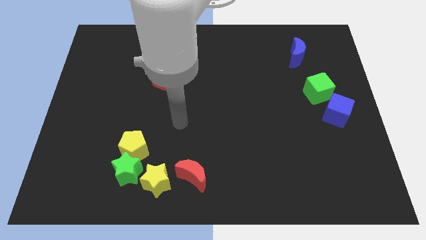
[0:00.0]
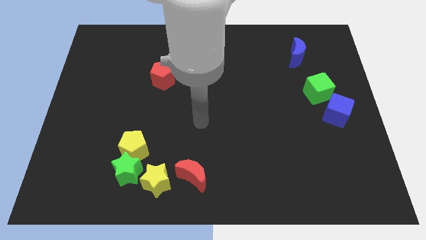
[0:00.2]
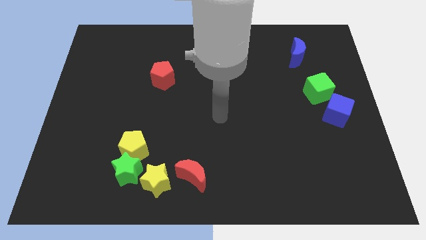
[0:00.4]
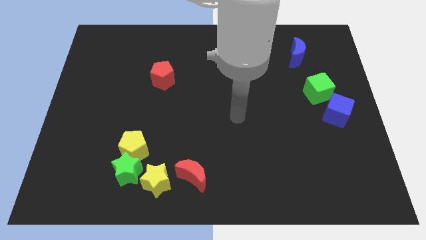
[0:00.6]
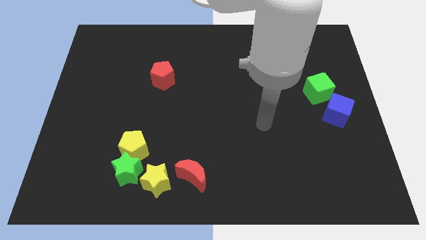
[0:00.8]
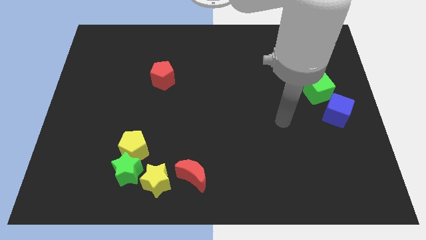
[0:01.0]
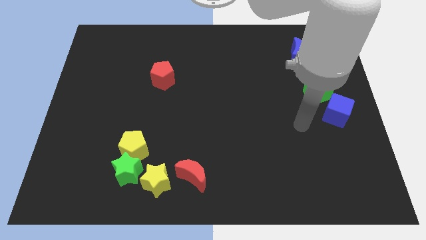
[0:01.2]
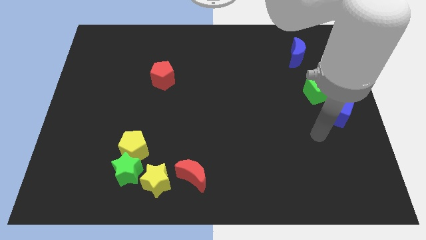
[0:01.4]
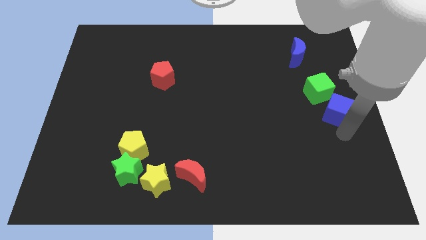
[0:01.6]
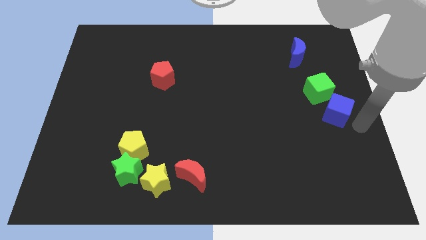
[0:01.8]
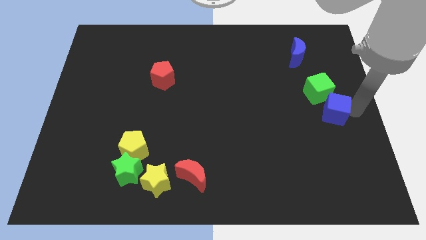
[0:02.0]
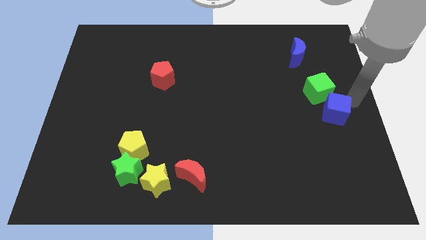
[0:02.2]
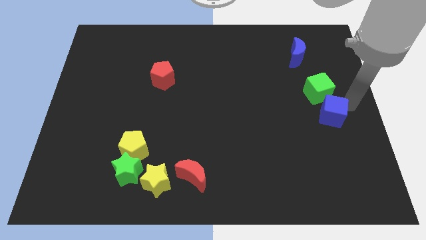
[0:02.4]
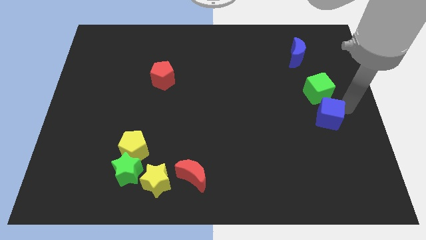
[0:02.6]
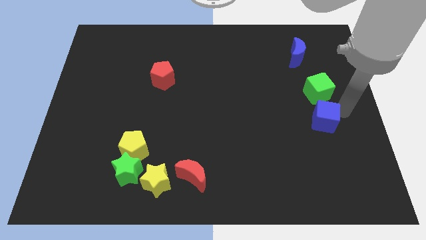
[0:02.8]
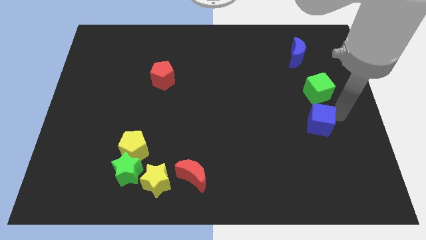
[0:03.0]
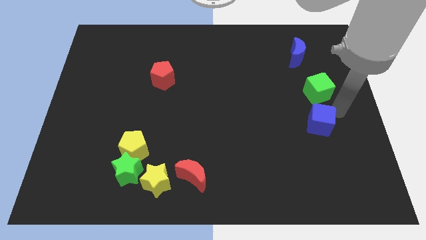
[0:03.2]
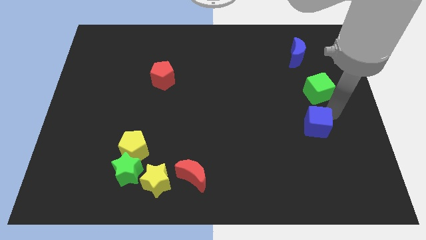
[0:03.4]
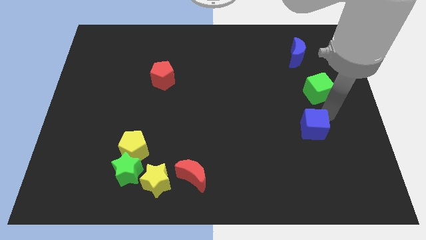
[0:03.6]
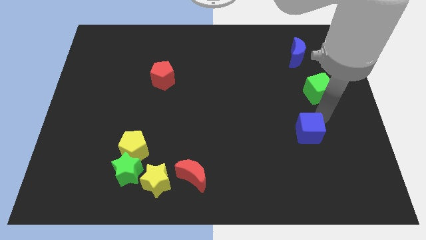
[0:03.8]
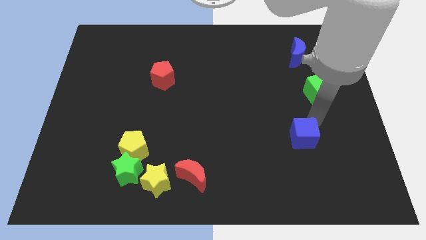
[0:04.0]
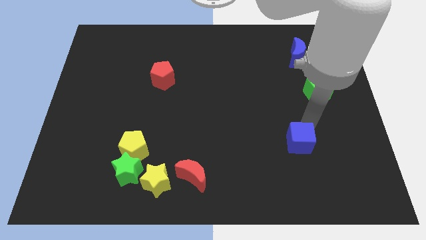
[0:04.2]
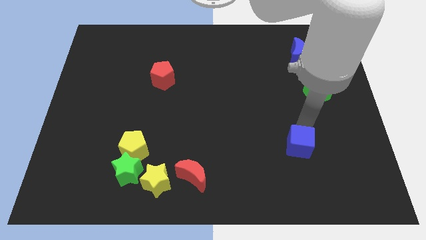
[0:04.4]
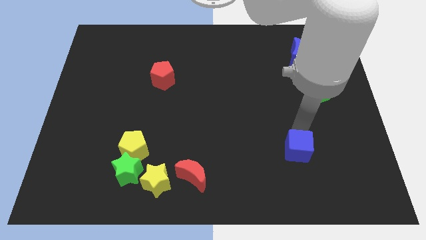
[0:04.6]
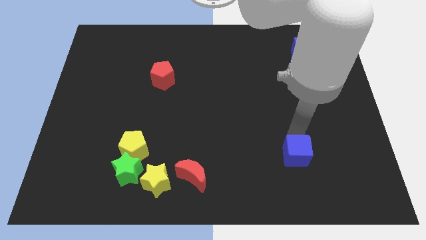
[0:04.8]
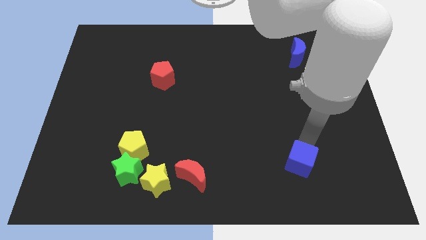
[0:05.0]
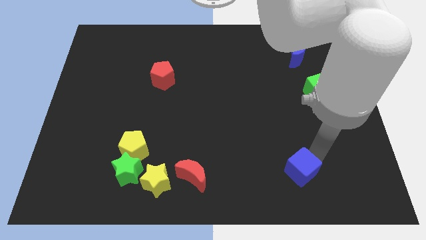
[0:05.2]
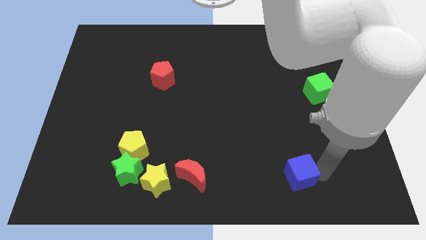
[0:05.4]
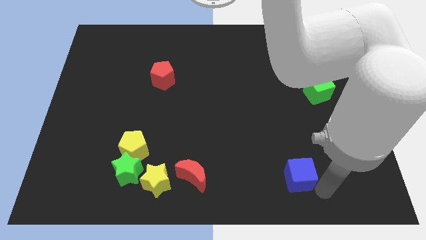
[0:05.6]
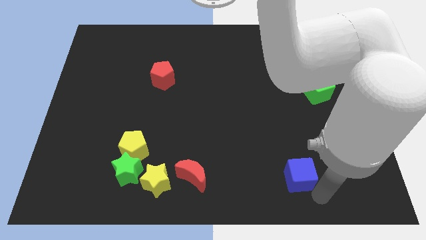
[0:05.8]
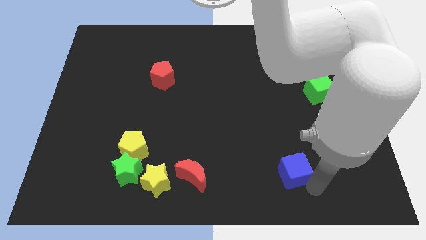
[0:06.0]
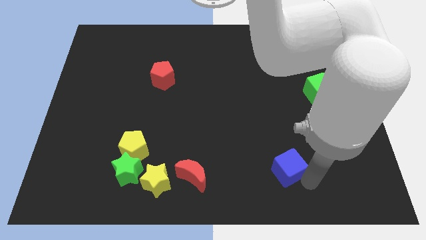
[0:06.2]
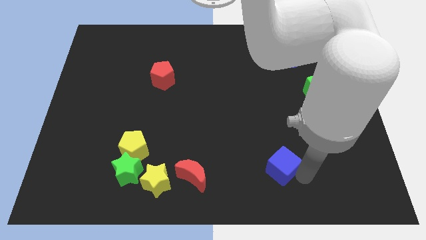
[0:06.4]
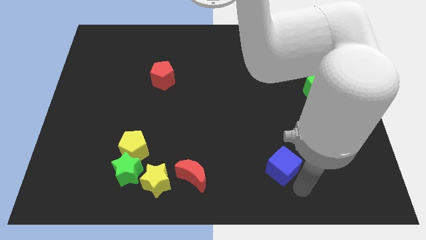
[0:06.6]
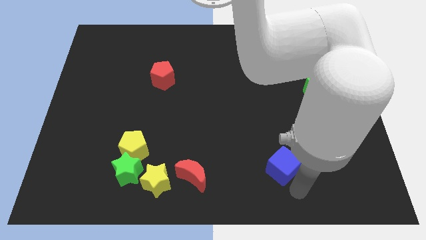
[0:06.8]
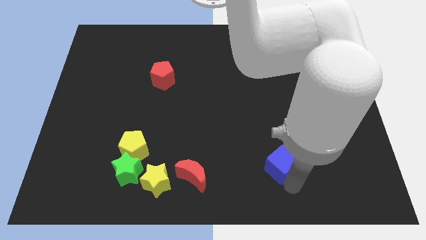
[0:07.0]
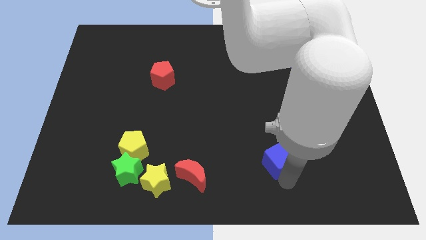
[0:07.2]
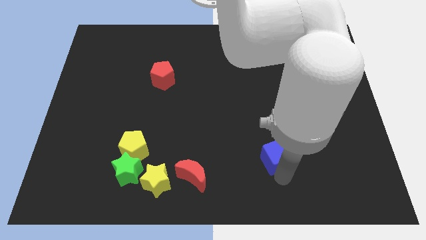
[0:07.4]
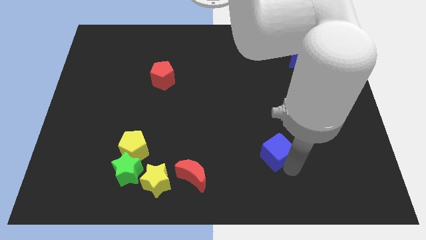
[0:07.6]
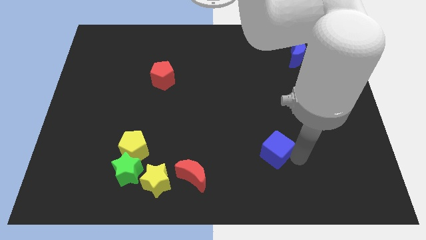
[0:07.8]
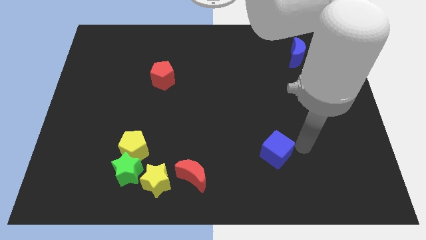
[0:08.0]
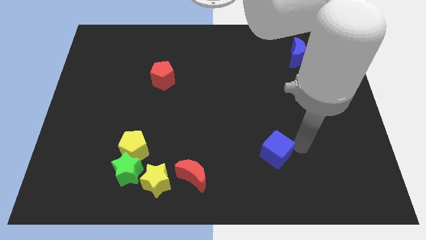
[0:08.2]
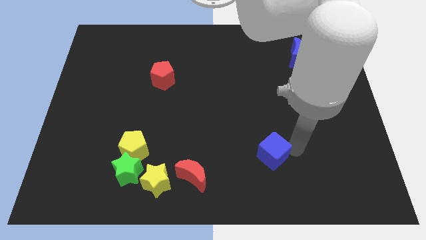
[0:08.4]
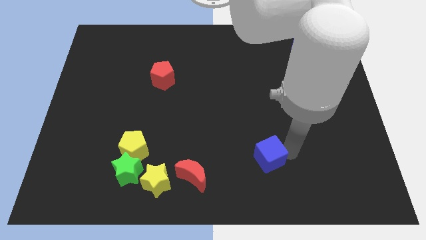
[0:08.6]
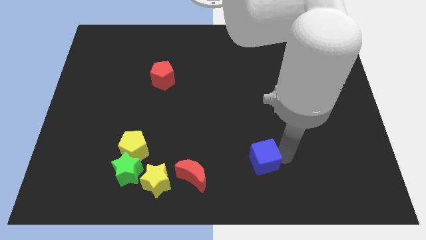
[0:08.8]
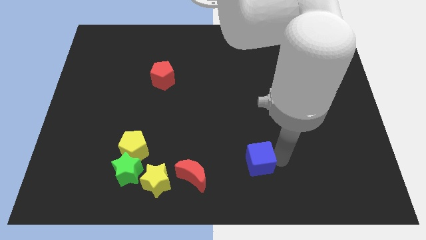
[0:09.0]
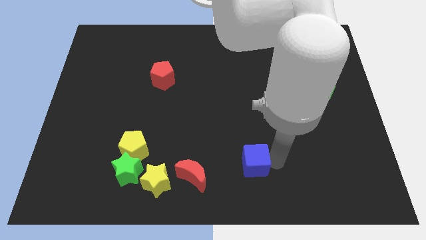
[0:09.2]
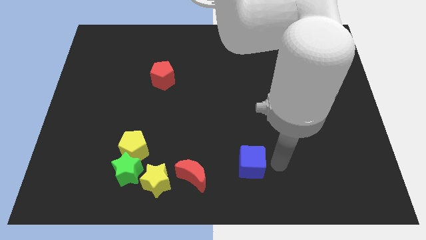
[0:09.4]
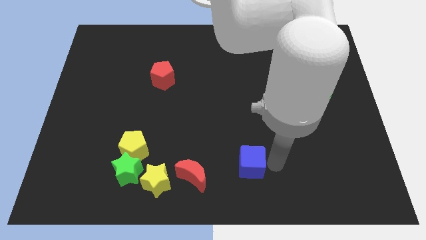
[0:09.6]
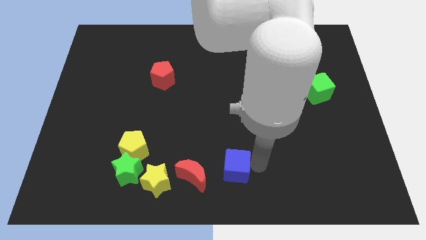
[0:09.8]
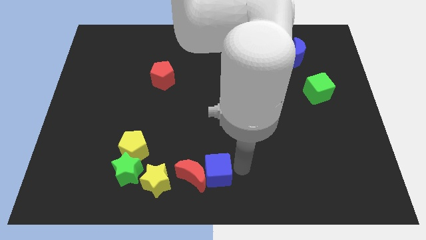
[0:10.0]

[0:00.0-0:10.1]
push the blue cube towards the red moon

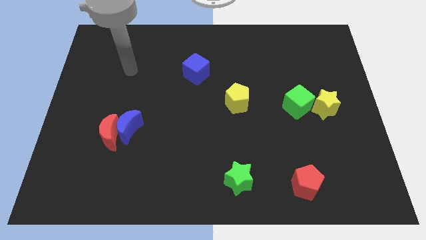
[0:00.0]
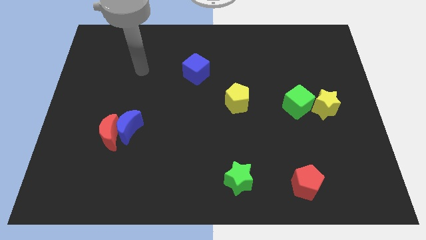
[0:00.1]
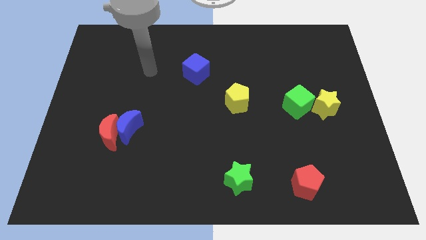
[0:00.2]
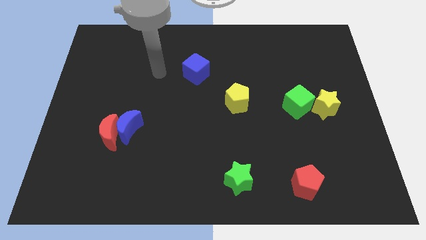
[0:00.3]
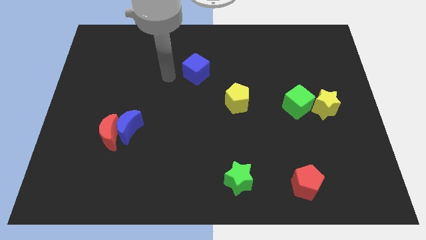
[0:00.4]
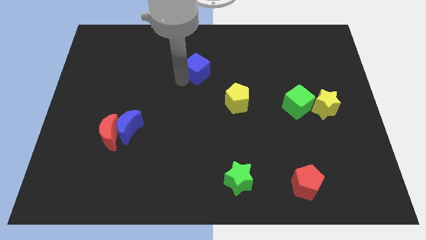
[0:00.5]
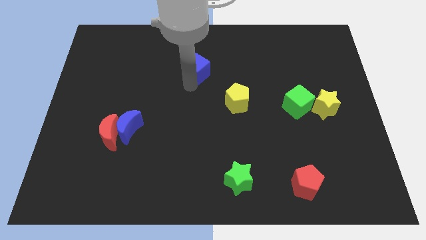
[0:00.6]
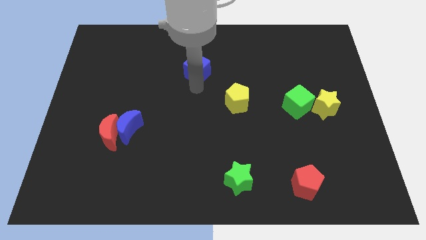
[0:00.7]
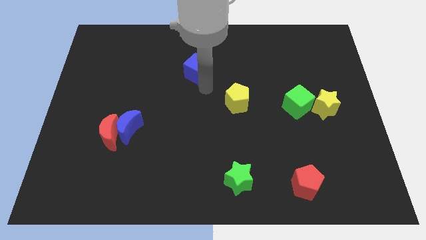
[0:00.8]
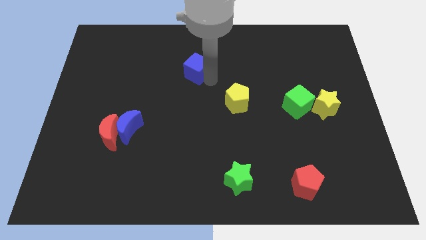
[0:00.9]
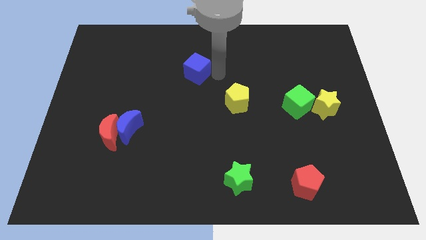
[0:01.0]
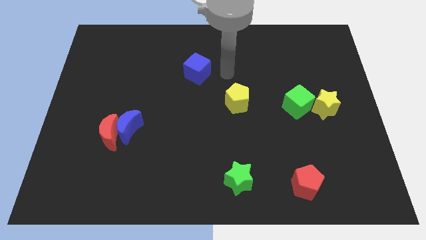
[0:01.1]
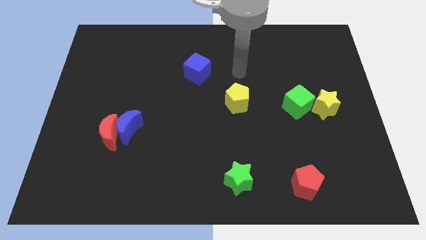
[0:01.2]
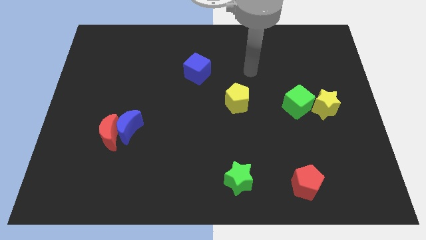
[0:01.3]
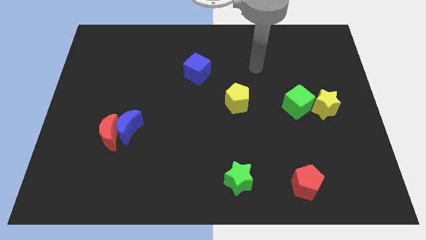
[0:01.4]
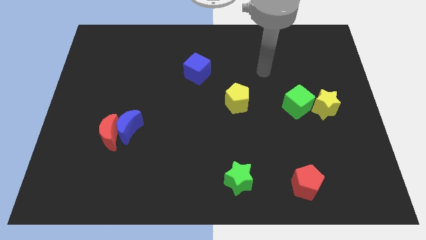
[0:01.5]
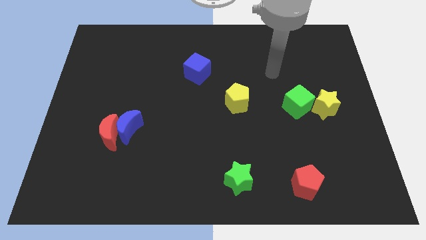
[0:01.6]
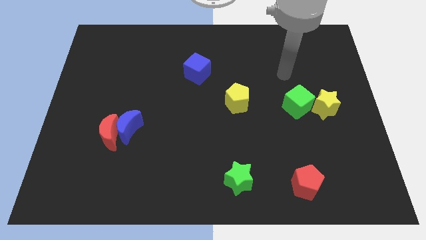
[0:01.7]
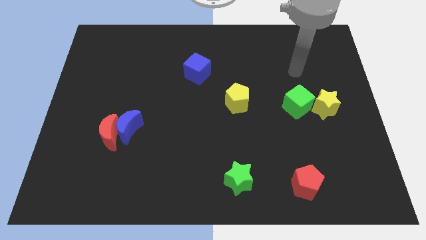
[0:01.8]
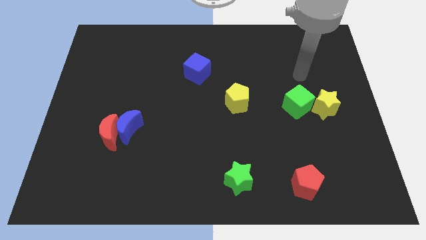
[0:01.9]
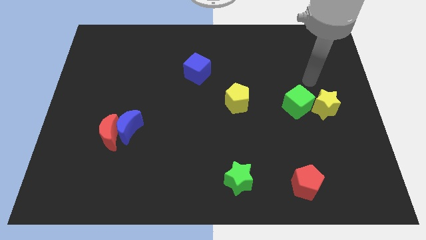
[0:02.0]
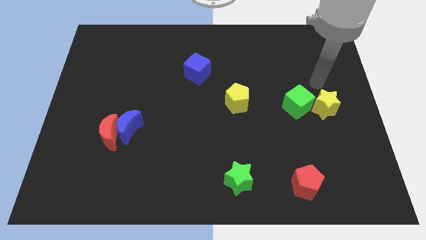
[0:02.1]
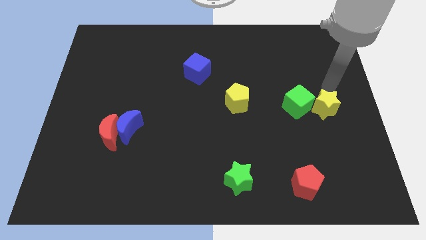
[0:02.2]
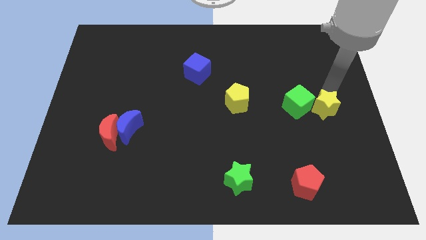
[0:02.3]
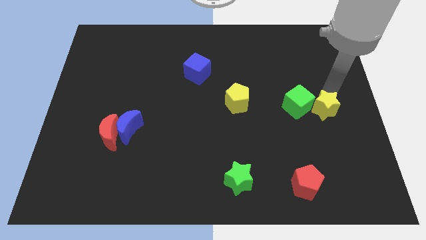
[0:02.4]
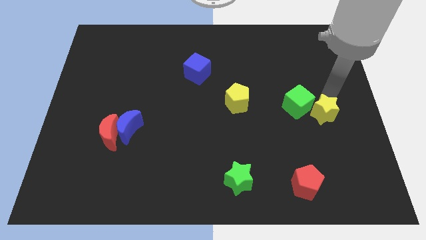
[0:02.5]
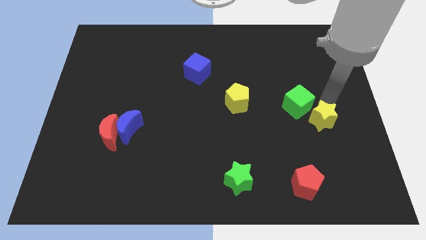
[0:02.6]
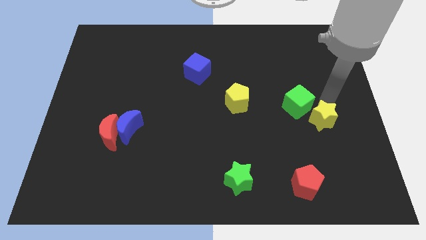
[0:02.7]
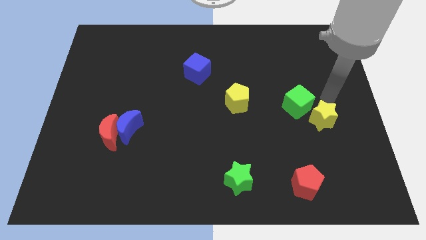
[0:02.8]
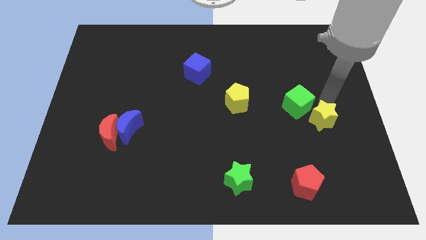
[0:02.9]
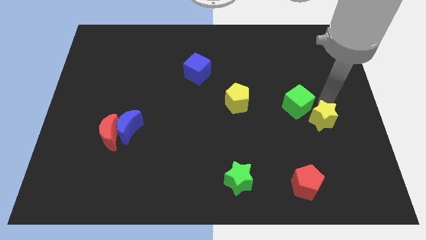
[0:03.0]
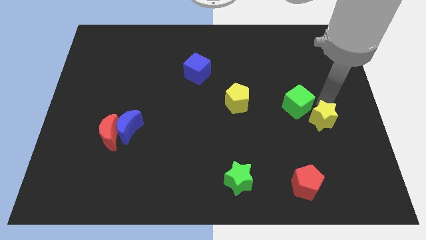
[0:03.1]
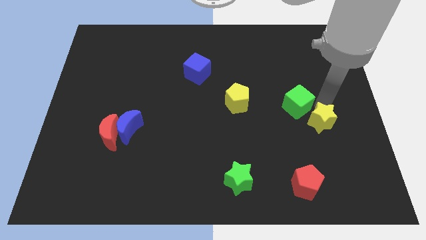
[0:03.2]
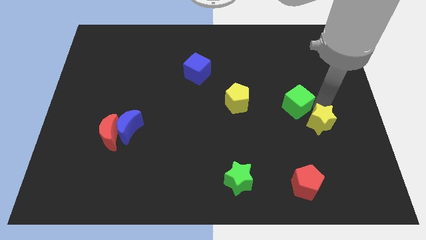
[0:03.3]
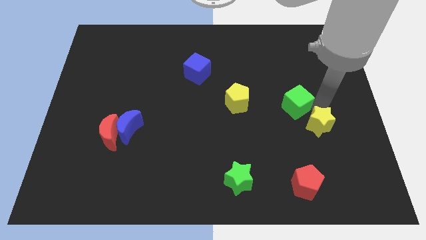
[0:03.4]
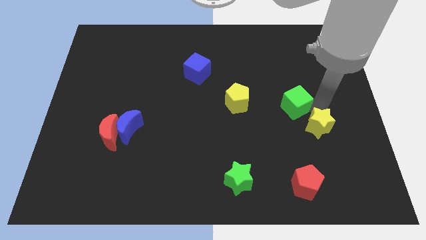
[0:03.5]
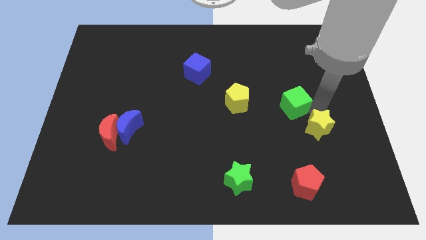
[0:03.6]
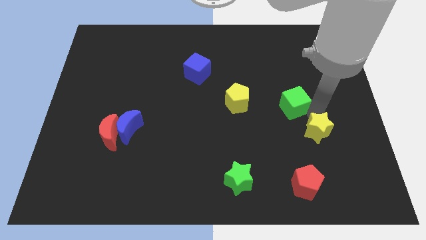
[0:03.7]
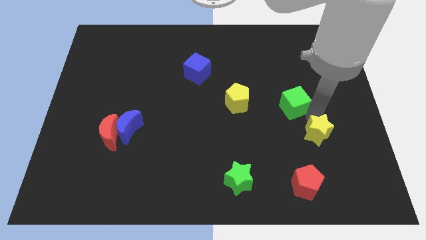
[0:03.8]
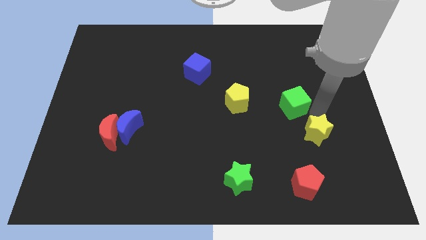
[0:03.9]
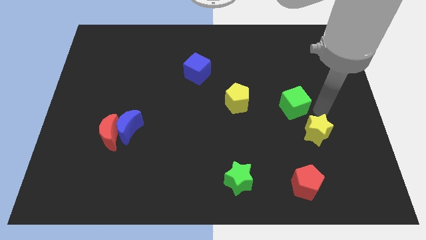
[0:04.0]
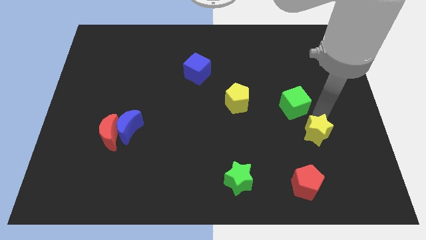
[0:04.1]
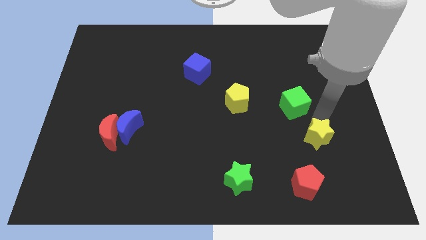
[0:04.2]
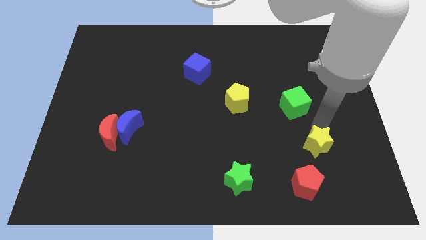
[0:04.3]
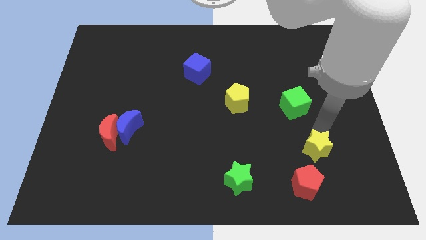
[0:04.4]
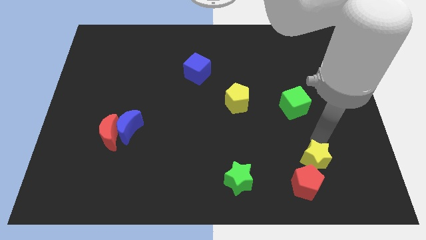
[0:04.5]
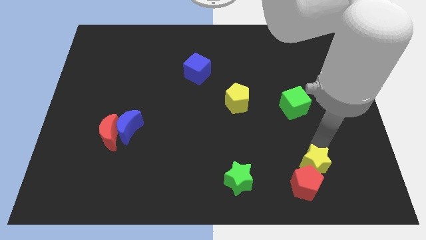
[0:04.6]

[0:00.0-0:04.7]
put the yellow star towards the red pentagon
